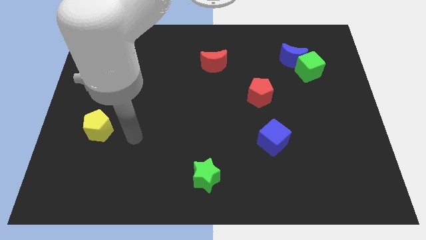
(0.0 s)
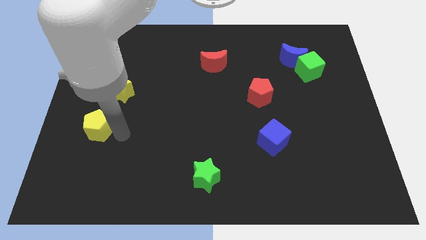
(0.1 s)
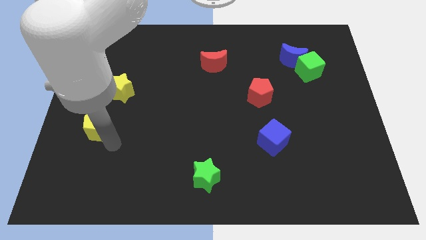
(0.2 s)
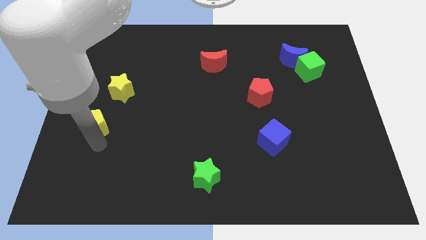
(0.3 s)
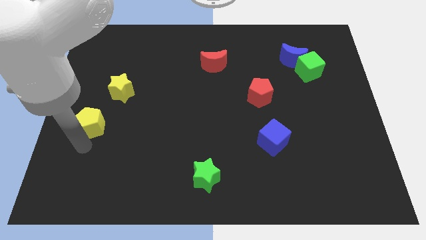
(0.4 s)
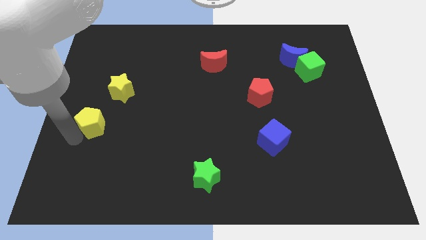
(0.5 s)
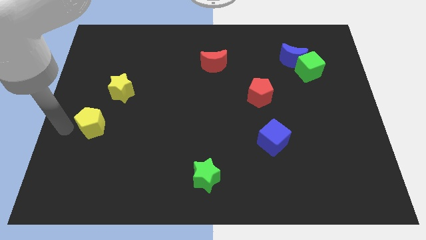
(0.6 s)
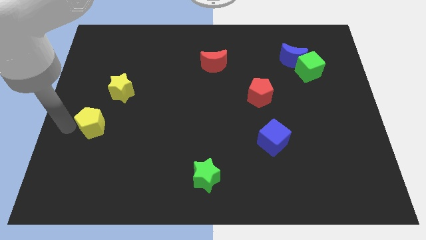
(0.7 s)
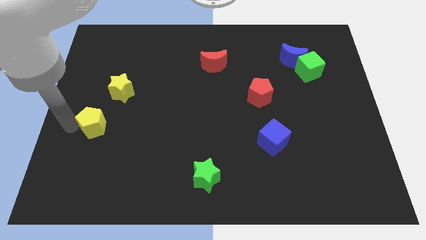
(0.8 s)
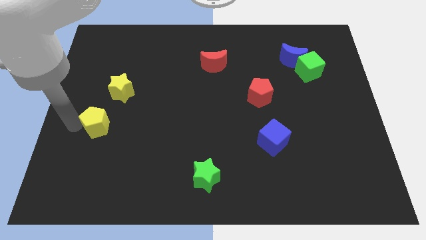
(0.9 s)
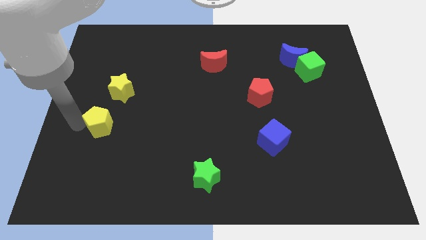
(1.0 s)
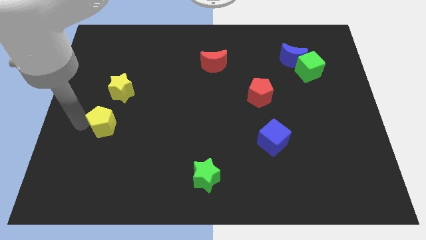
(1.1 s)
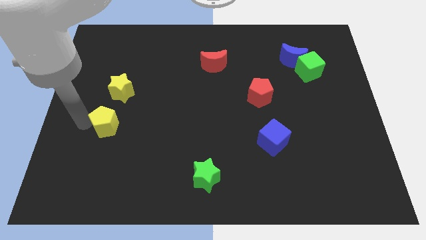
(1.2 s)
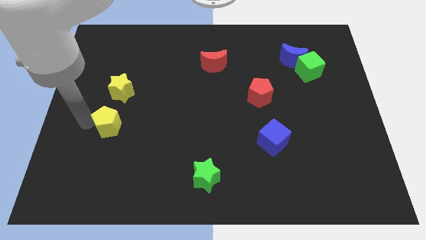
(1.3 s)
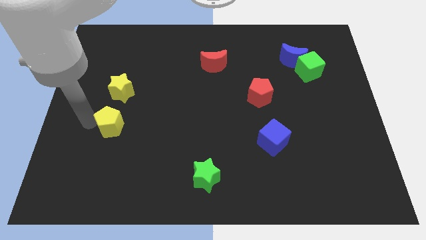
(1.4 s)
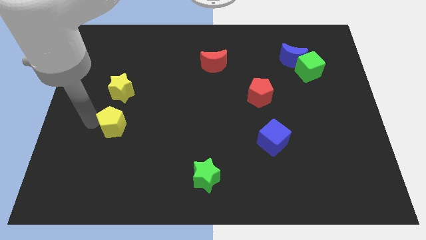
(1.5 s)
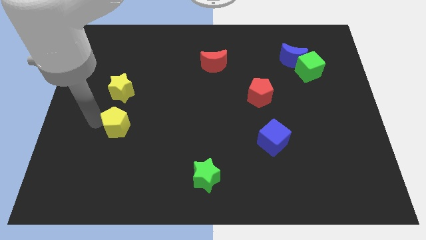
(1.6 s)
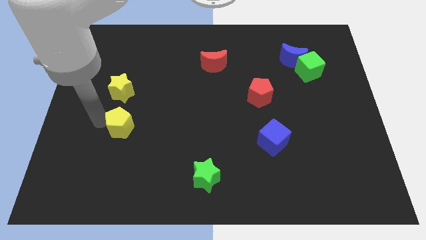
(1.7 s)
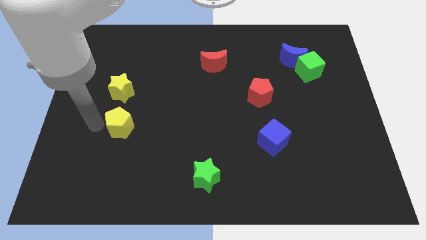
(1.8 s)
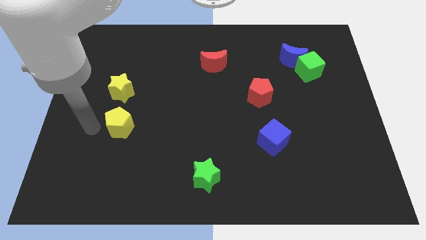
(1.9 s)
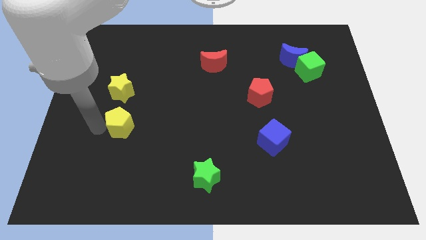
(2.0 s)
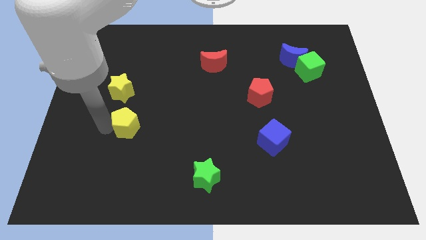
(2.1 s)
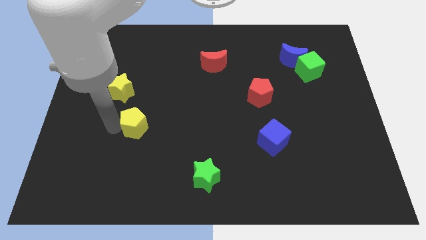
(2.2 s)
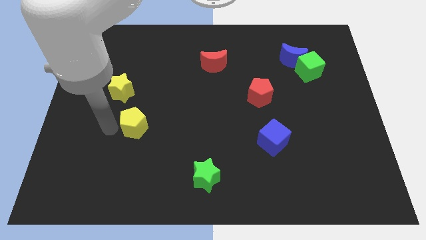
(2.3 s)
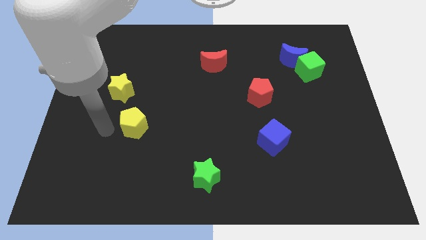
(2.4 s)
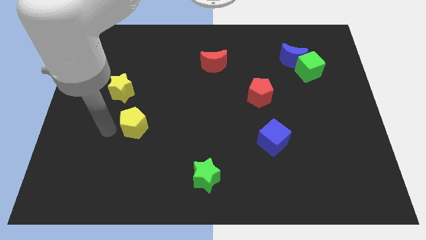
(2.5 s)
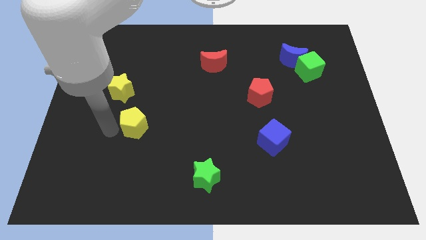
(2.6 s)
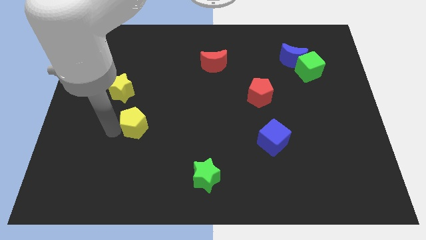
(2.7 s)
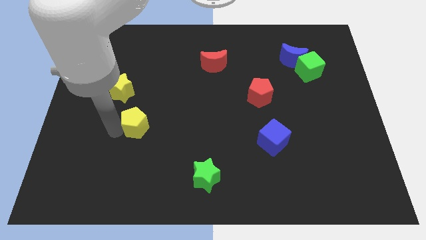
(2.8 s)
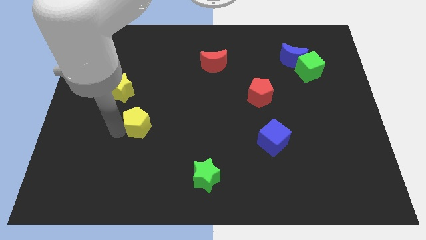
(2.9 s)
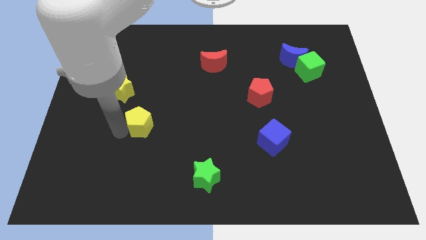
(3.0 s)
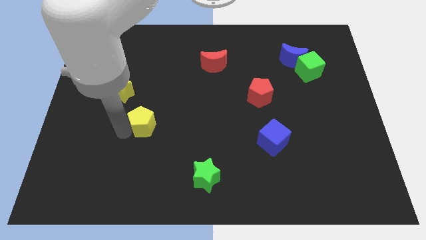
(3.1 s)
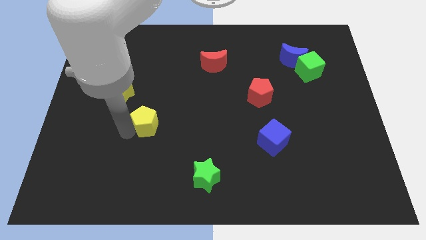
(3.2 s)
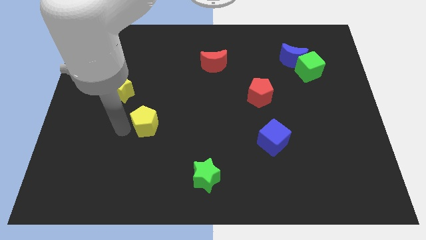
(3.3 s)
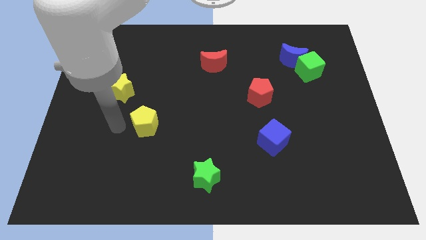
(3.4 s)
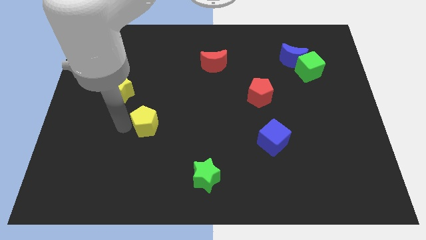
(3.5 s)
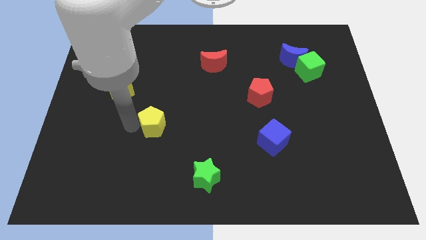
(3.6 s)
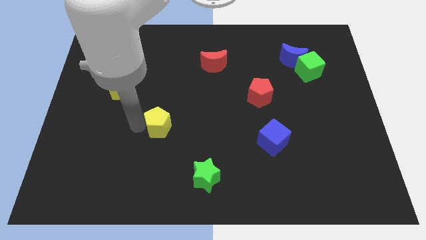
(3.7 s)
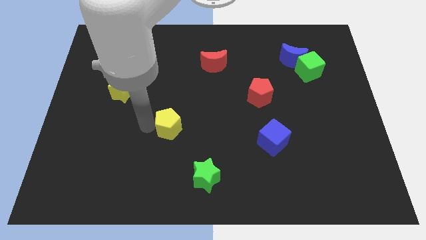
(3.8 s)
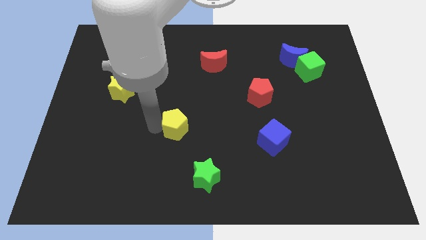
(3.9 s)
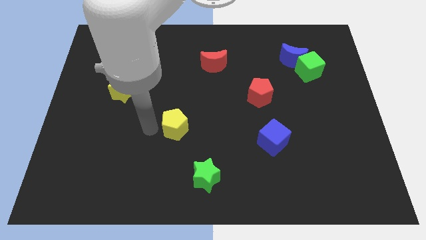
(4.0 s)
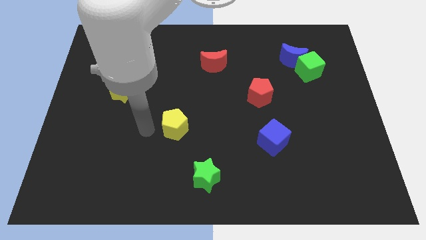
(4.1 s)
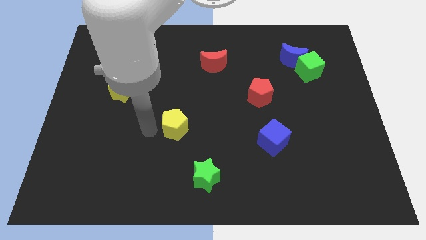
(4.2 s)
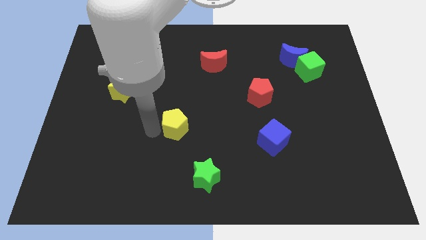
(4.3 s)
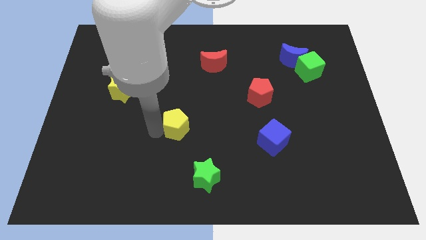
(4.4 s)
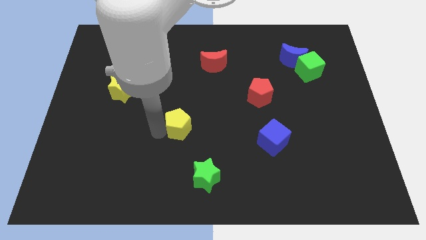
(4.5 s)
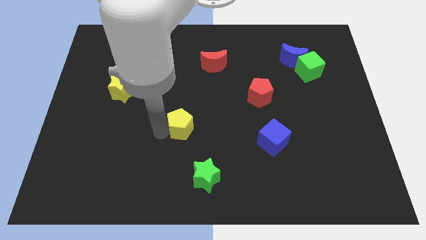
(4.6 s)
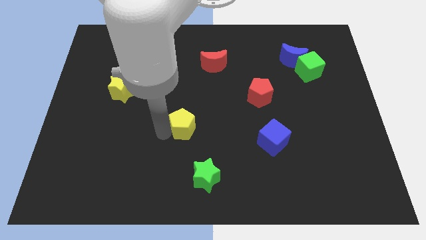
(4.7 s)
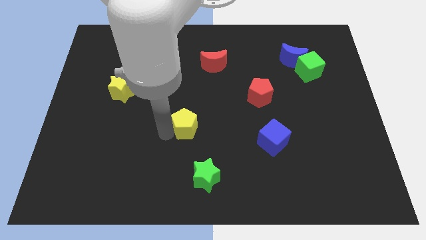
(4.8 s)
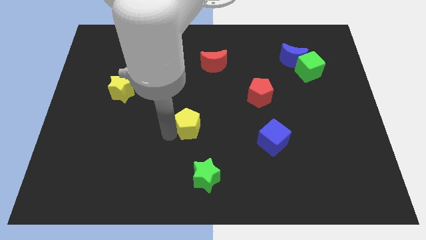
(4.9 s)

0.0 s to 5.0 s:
push the yellow pentagon to the right

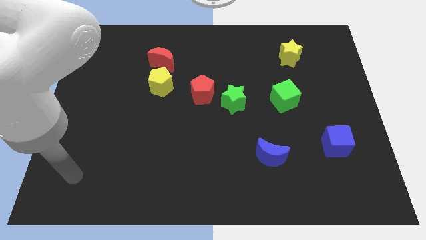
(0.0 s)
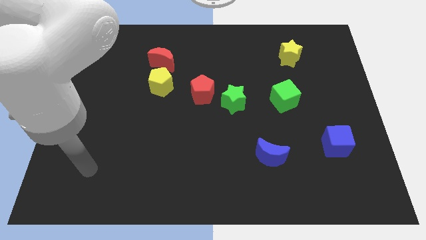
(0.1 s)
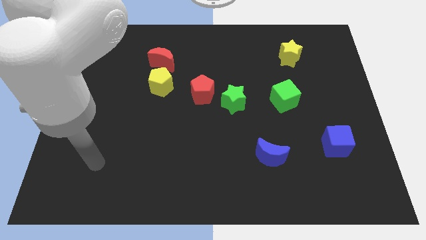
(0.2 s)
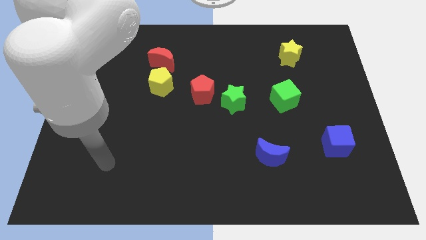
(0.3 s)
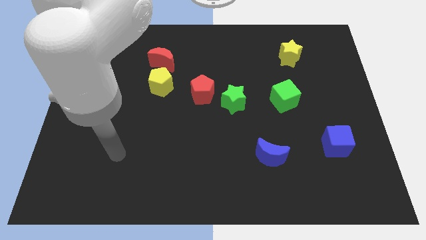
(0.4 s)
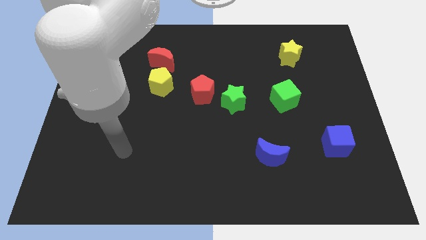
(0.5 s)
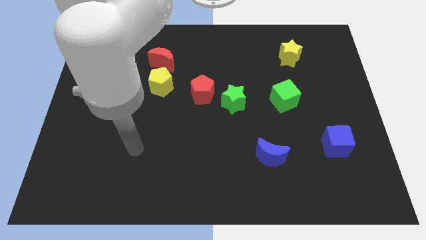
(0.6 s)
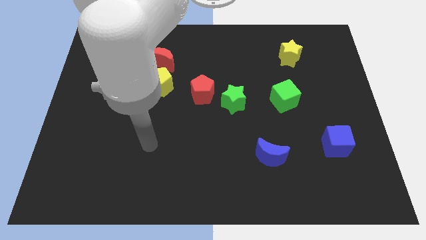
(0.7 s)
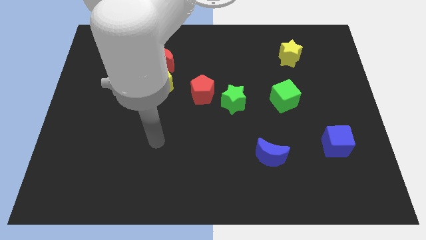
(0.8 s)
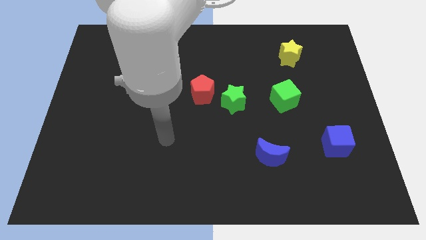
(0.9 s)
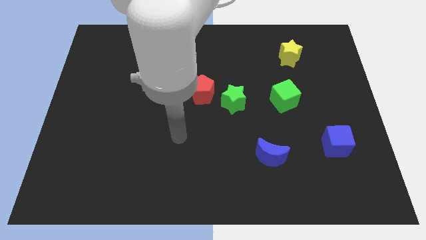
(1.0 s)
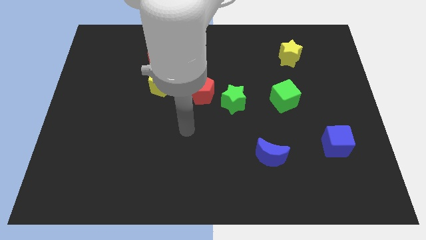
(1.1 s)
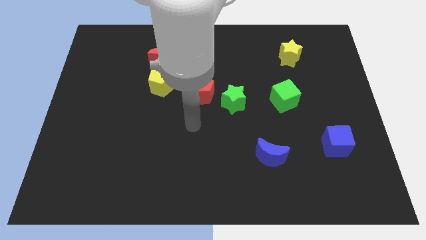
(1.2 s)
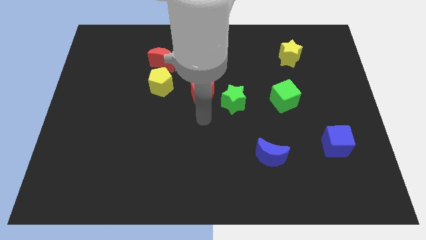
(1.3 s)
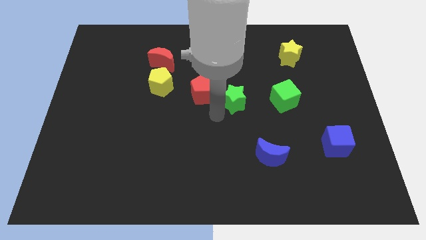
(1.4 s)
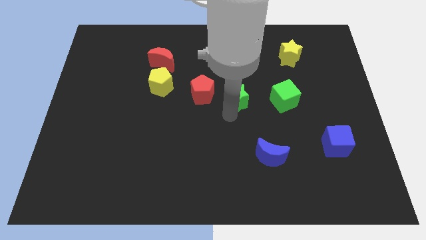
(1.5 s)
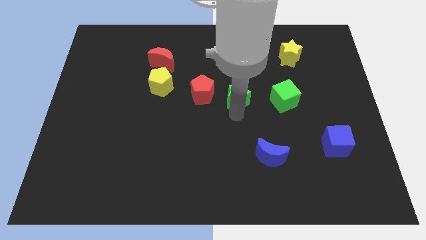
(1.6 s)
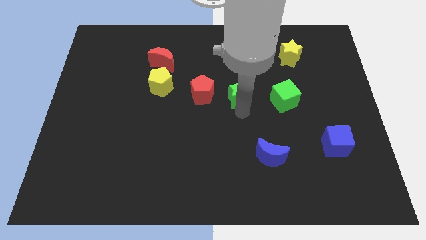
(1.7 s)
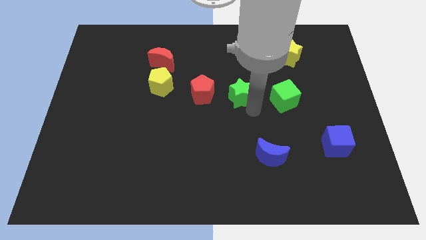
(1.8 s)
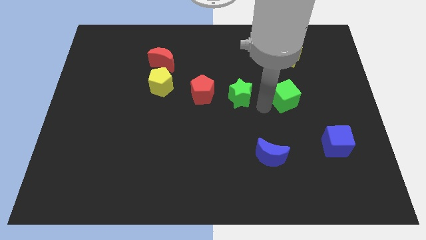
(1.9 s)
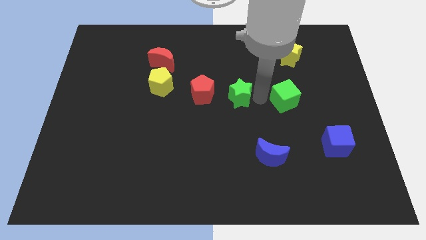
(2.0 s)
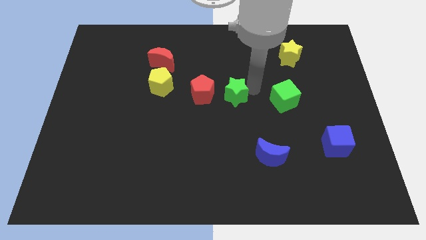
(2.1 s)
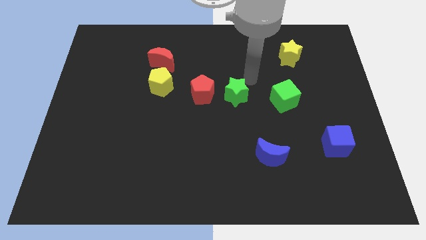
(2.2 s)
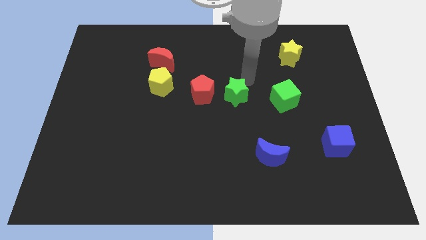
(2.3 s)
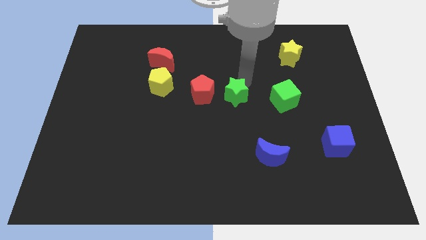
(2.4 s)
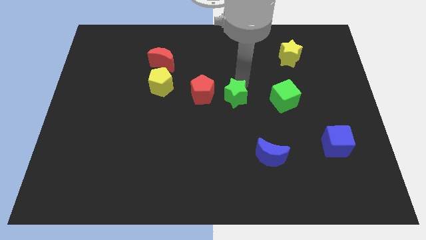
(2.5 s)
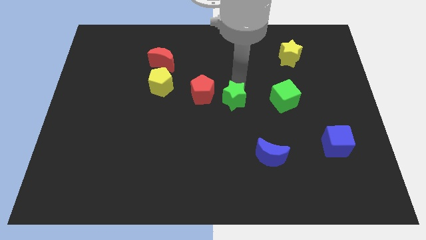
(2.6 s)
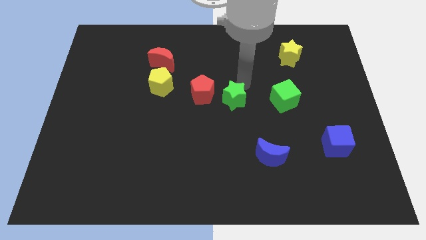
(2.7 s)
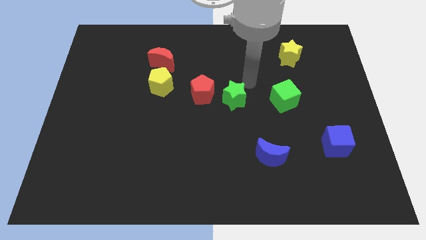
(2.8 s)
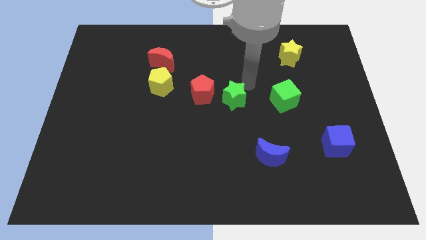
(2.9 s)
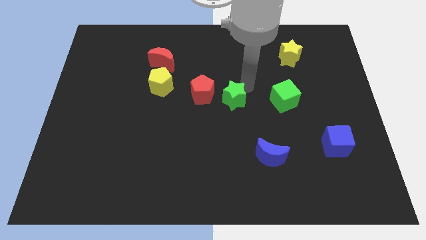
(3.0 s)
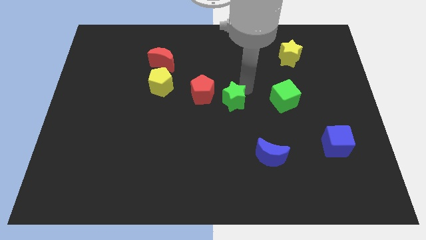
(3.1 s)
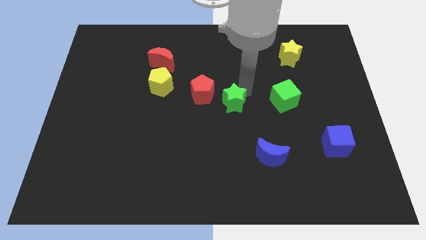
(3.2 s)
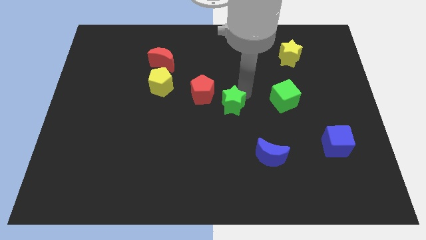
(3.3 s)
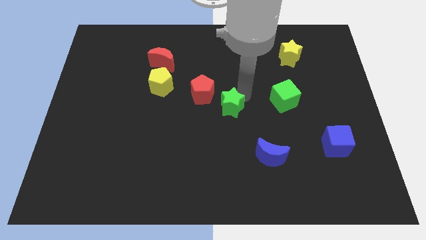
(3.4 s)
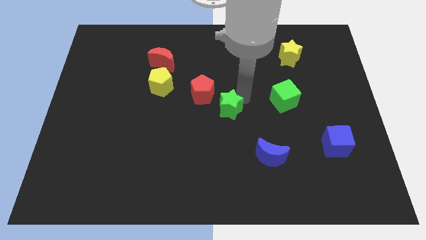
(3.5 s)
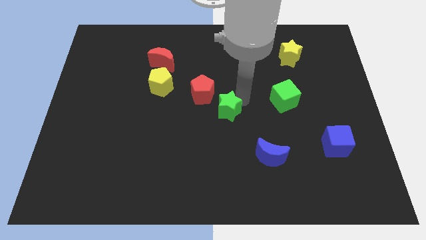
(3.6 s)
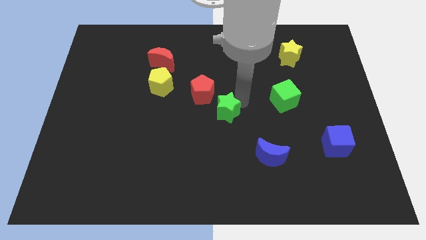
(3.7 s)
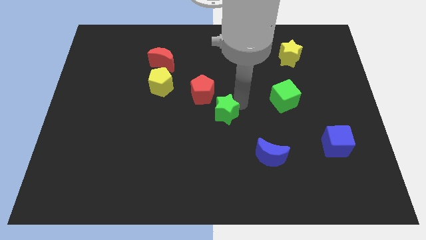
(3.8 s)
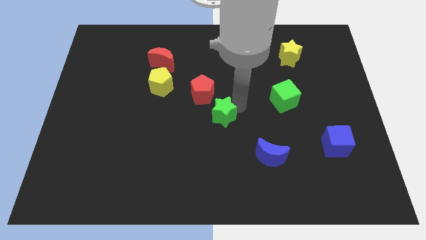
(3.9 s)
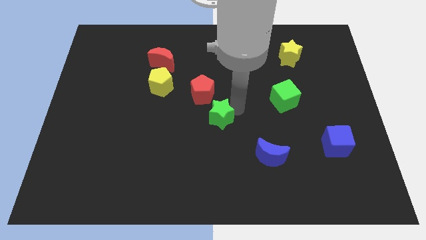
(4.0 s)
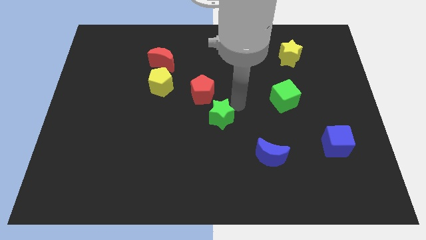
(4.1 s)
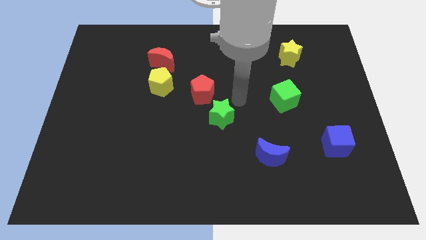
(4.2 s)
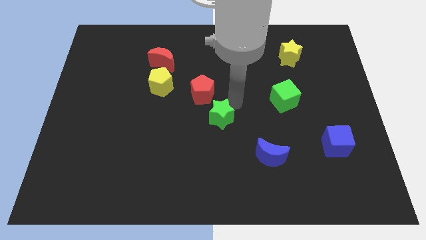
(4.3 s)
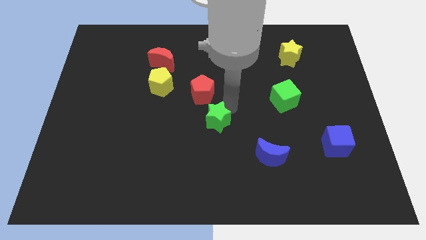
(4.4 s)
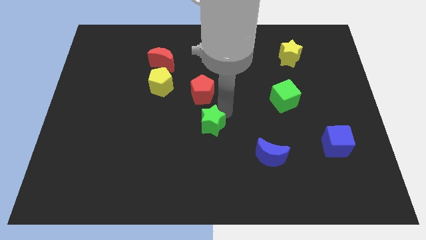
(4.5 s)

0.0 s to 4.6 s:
push the green star a little downwards and to the left diagonally
